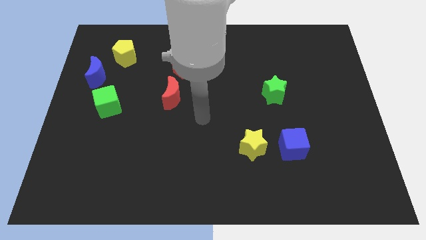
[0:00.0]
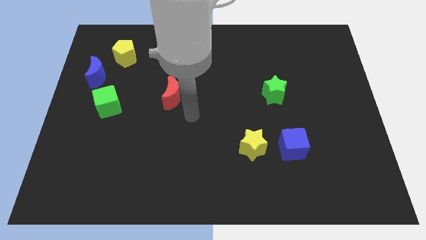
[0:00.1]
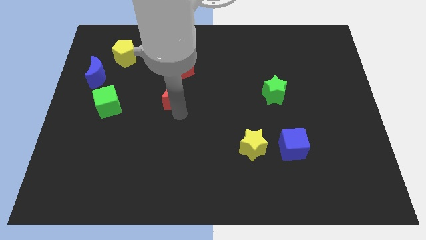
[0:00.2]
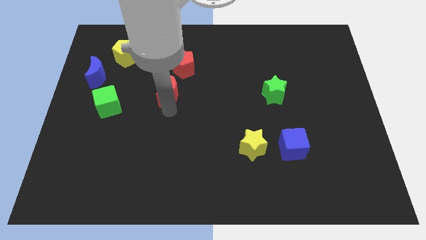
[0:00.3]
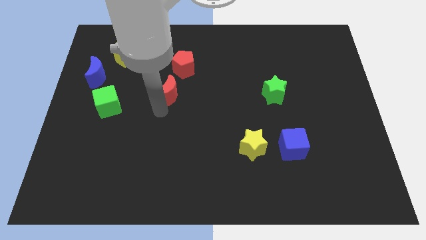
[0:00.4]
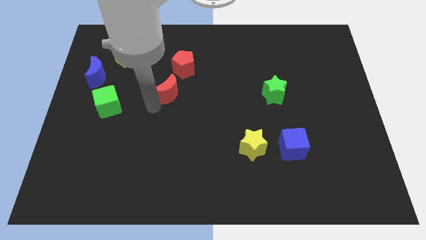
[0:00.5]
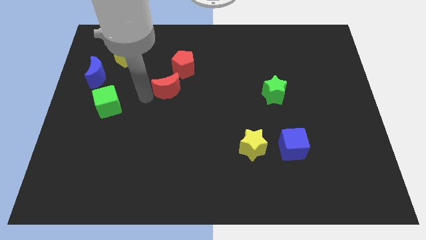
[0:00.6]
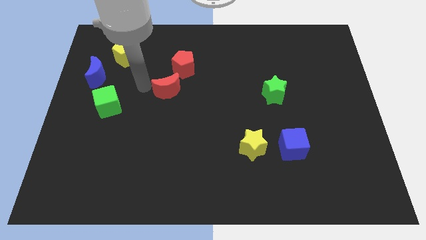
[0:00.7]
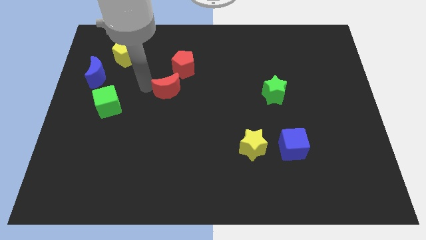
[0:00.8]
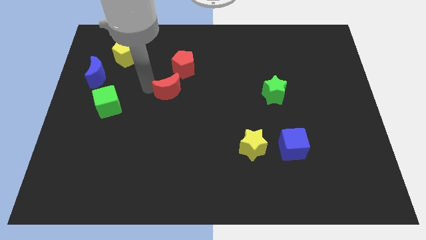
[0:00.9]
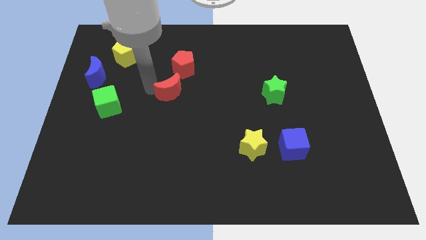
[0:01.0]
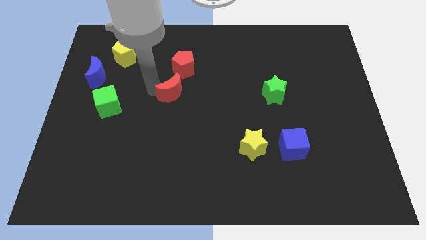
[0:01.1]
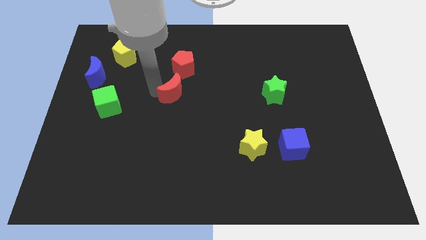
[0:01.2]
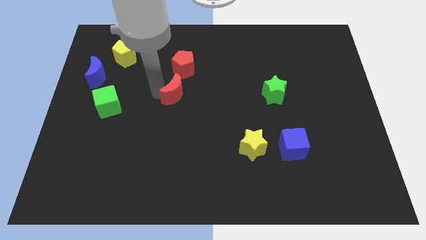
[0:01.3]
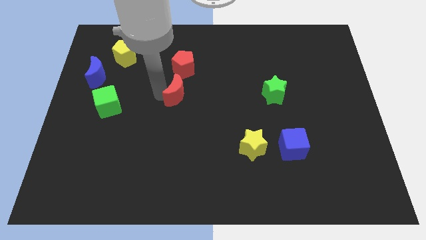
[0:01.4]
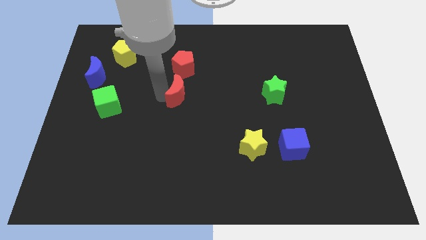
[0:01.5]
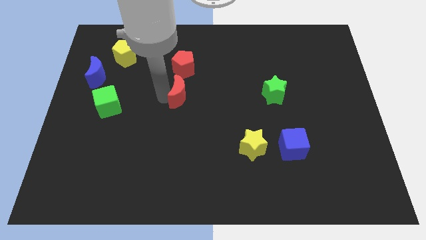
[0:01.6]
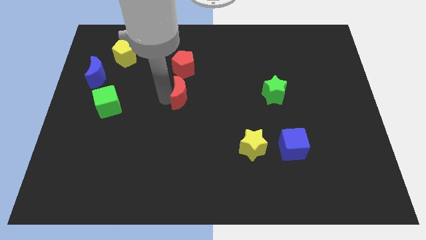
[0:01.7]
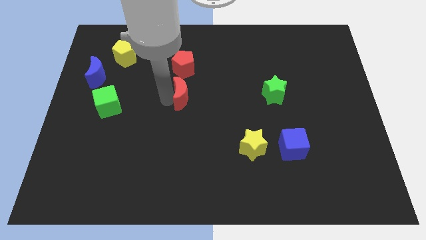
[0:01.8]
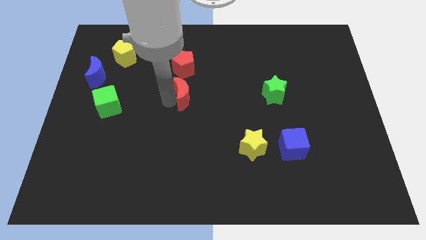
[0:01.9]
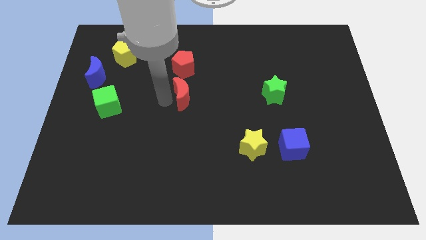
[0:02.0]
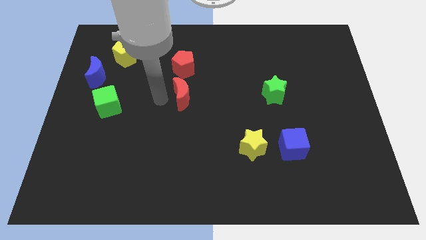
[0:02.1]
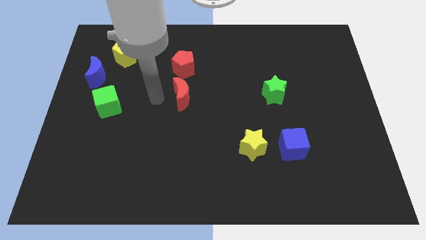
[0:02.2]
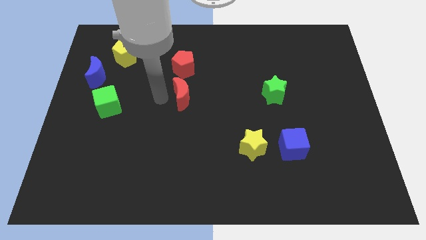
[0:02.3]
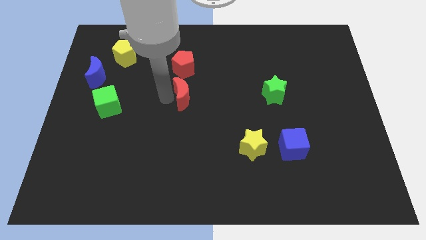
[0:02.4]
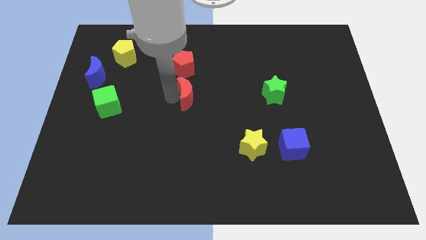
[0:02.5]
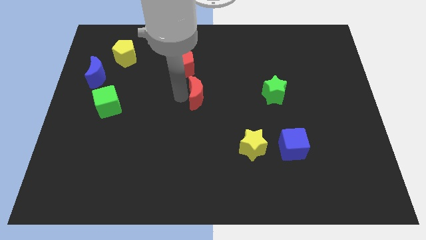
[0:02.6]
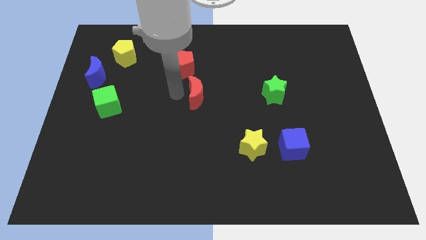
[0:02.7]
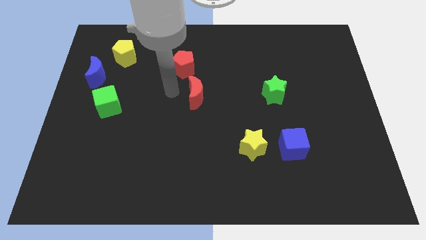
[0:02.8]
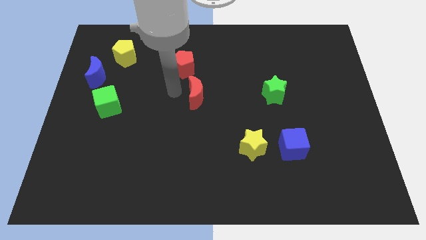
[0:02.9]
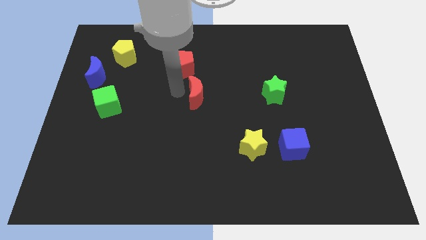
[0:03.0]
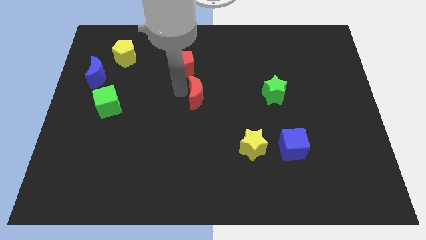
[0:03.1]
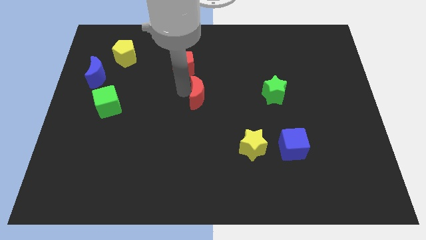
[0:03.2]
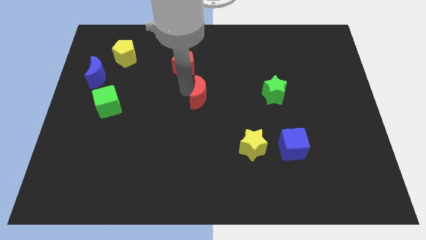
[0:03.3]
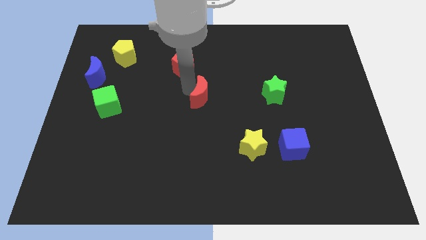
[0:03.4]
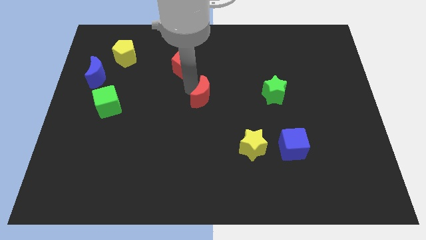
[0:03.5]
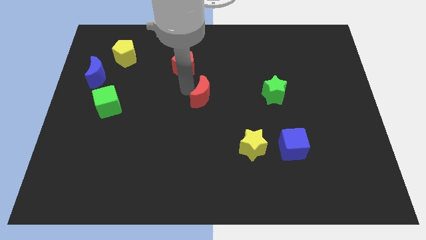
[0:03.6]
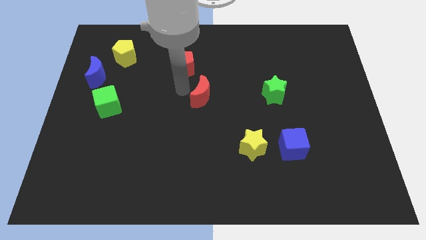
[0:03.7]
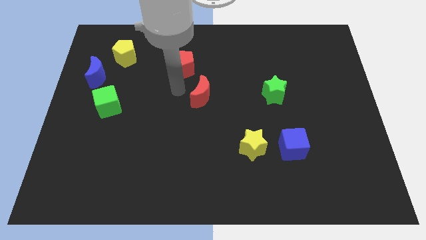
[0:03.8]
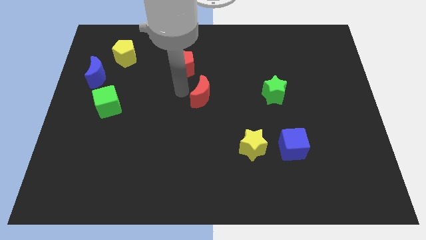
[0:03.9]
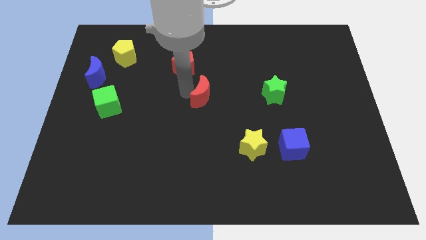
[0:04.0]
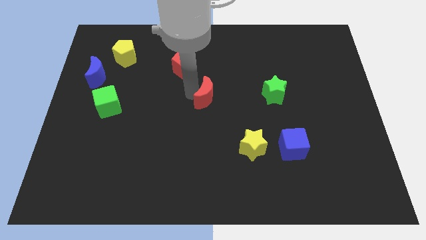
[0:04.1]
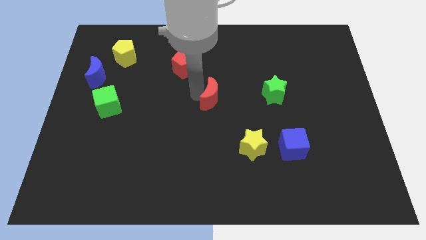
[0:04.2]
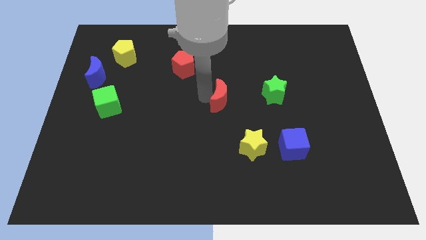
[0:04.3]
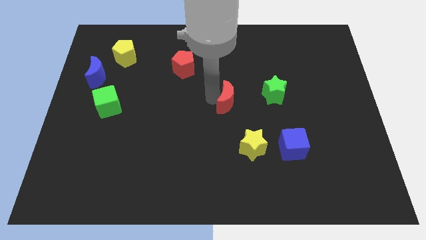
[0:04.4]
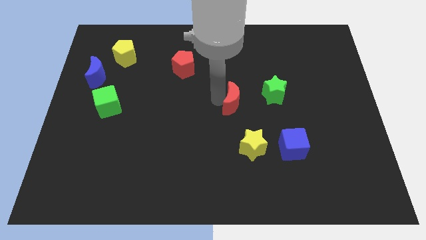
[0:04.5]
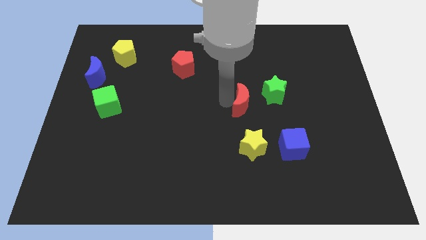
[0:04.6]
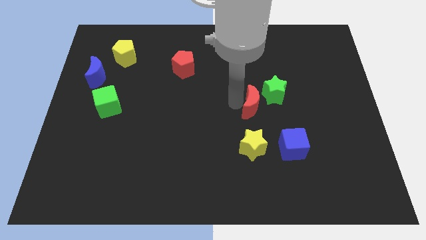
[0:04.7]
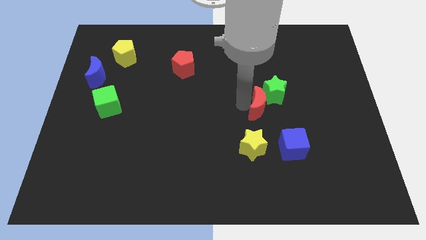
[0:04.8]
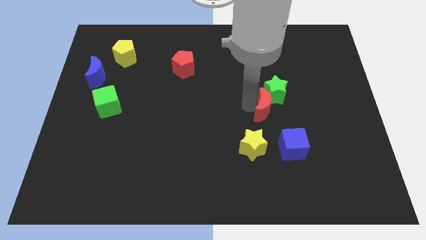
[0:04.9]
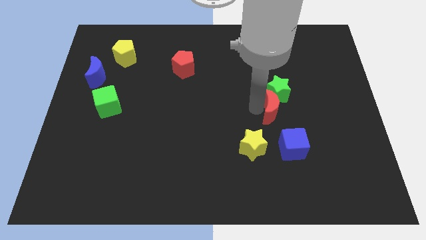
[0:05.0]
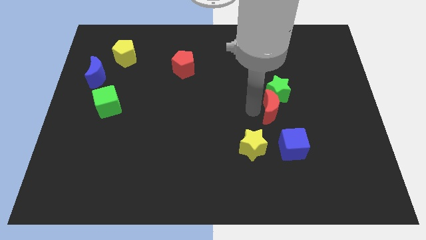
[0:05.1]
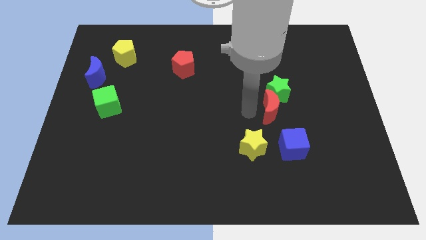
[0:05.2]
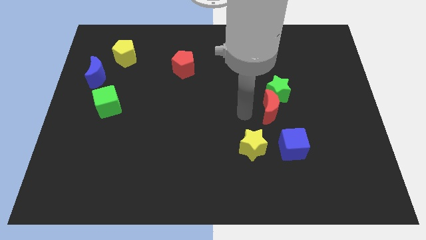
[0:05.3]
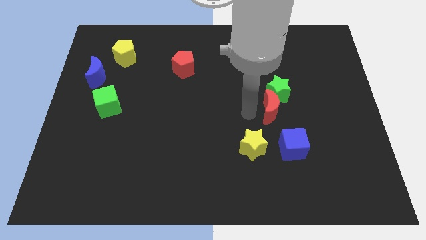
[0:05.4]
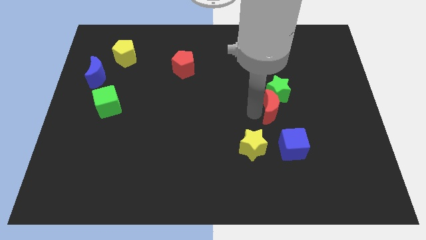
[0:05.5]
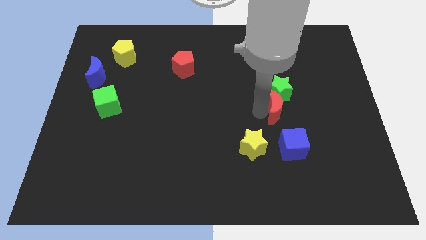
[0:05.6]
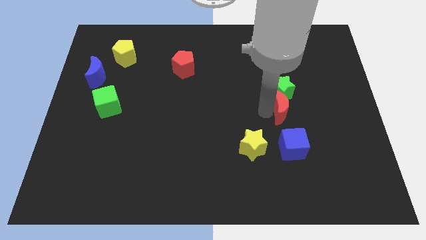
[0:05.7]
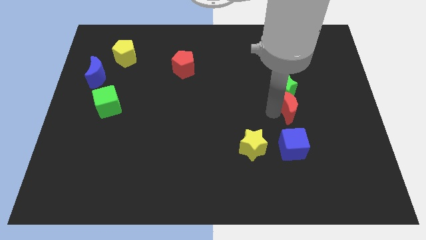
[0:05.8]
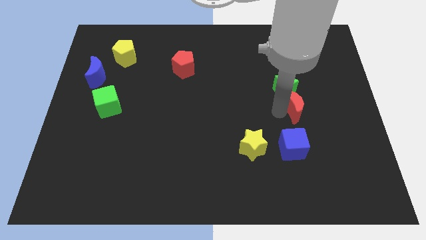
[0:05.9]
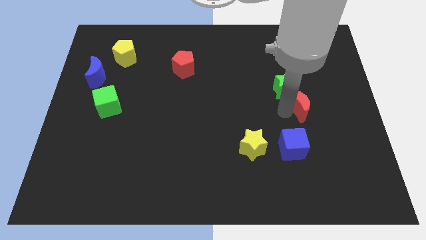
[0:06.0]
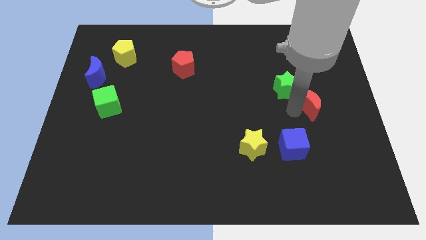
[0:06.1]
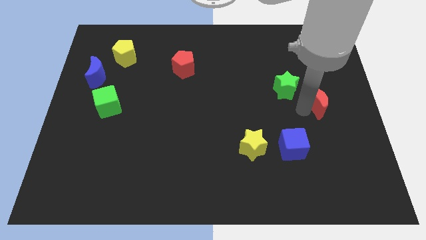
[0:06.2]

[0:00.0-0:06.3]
push the red moon to the right of the green star

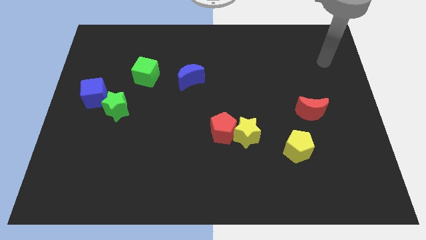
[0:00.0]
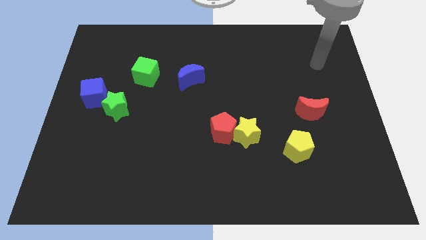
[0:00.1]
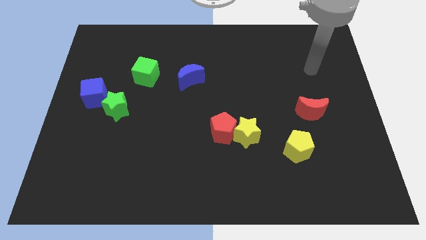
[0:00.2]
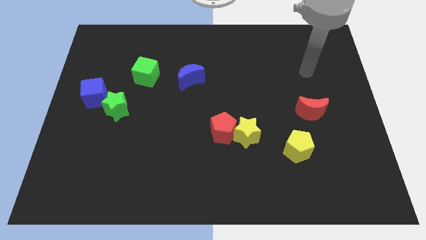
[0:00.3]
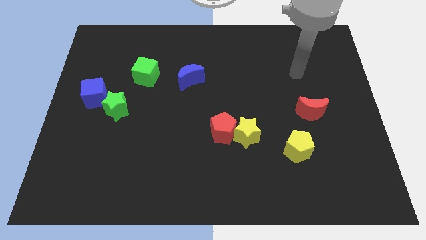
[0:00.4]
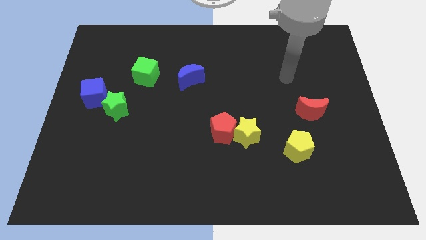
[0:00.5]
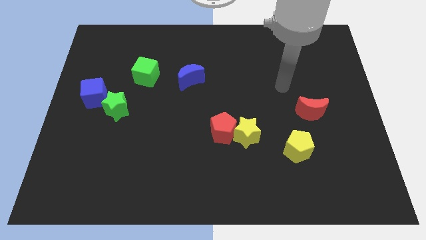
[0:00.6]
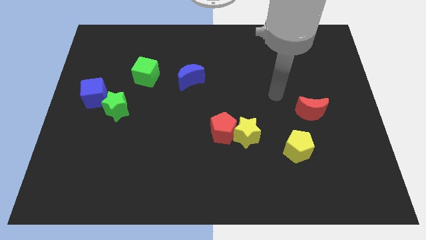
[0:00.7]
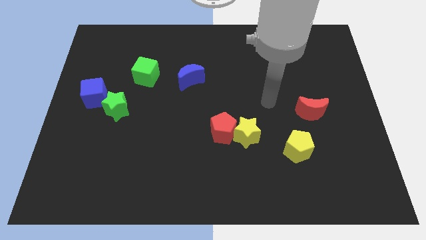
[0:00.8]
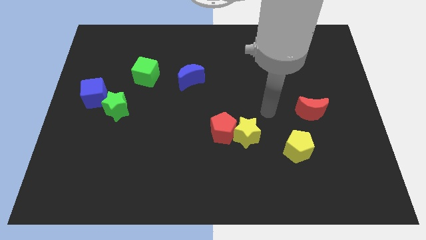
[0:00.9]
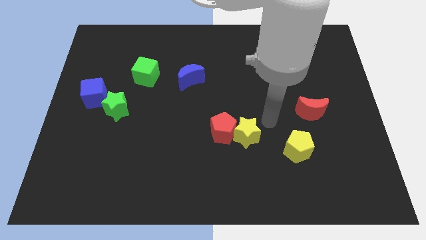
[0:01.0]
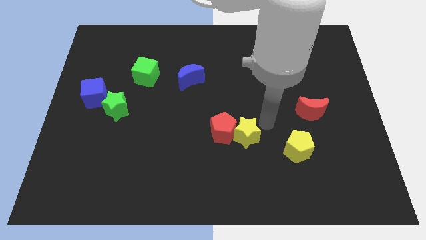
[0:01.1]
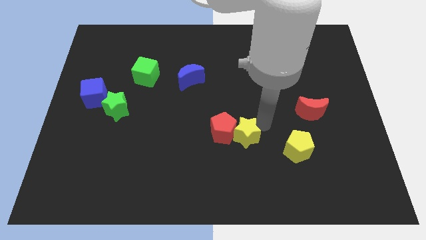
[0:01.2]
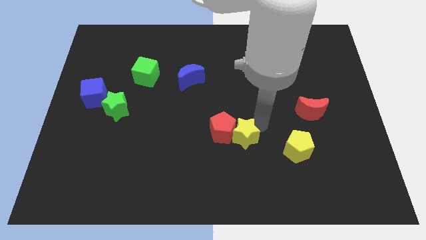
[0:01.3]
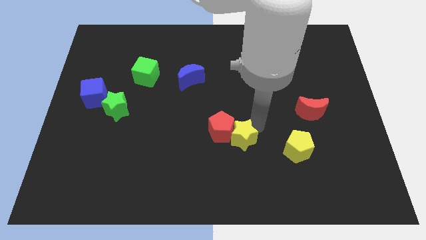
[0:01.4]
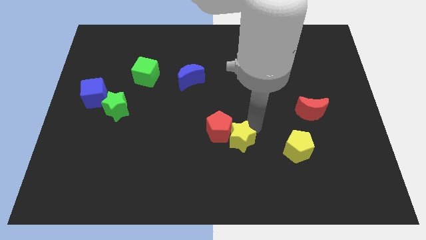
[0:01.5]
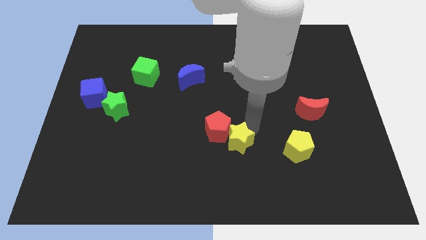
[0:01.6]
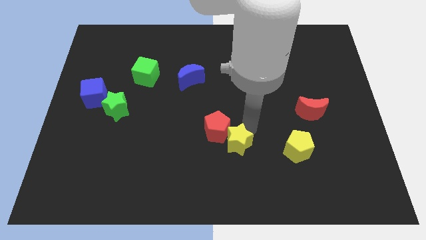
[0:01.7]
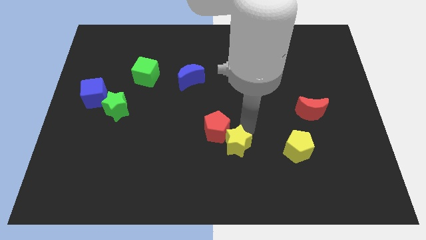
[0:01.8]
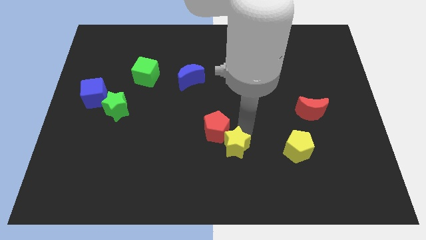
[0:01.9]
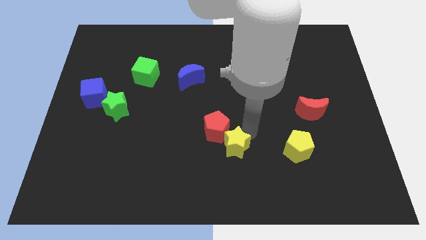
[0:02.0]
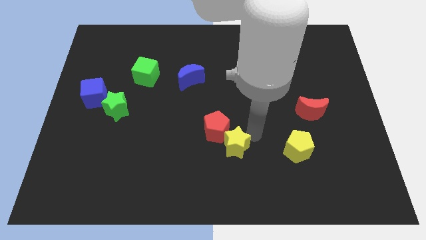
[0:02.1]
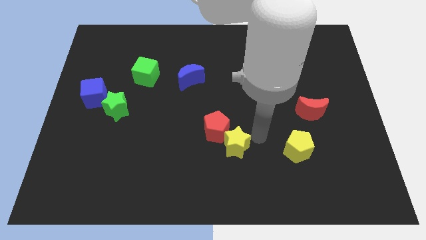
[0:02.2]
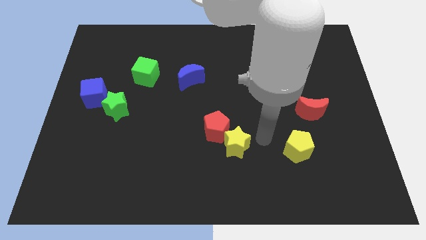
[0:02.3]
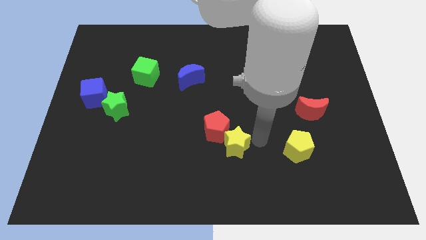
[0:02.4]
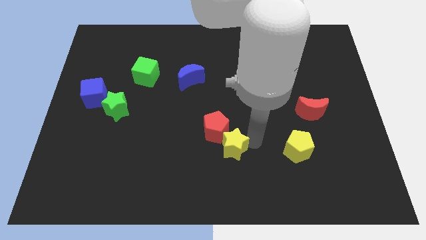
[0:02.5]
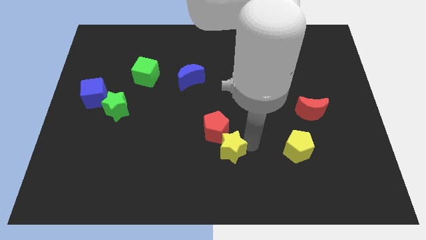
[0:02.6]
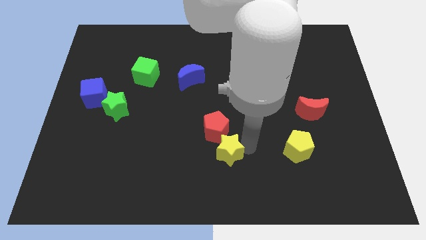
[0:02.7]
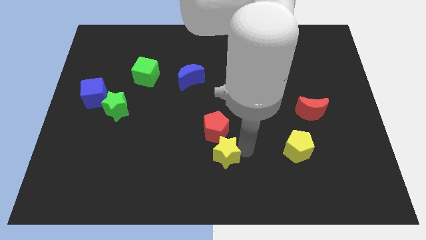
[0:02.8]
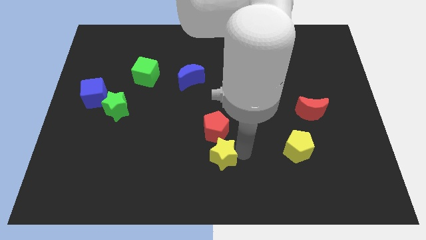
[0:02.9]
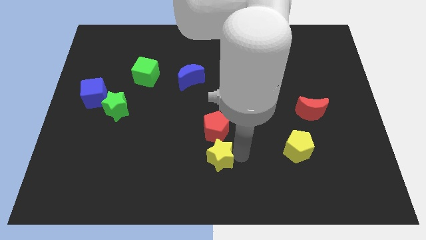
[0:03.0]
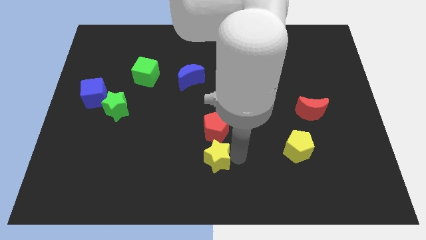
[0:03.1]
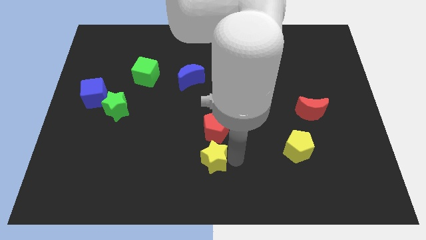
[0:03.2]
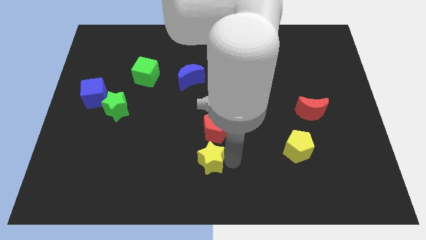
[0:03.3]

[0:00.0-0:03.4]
move the yellow star to the bottom left of the red pentagon
